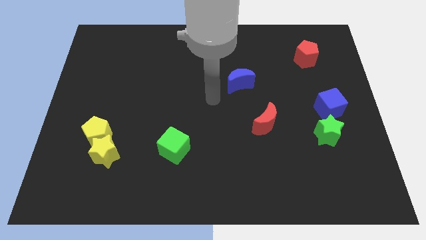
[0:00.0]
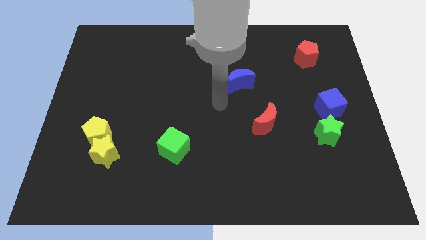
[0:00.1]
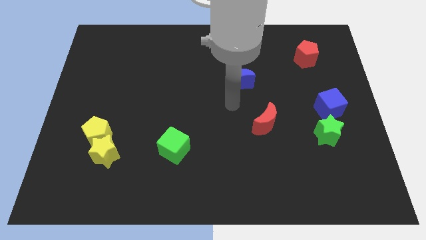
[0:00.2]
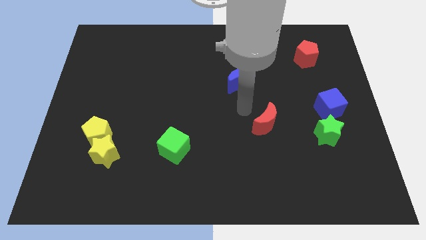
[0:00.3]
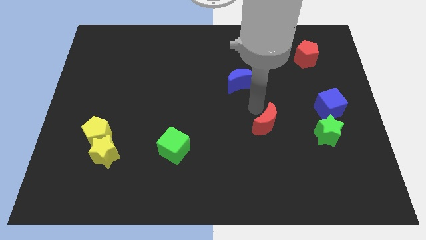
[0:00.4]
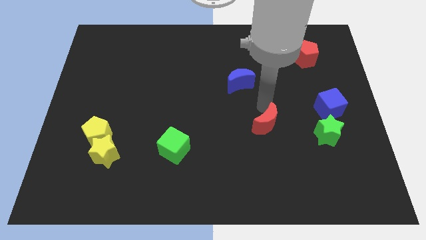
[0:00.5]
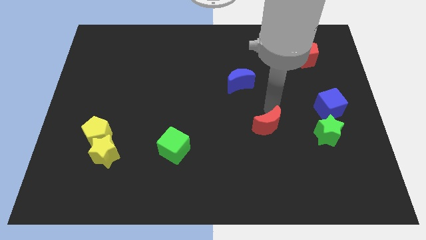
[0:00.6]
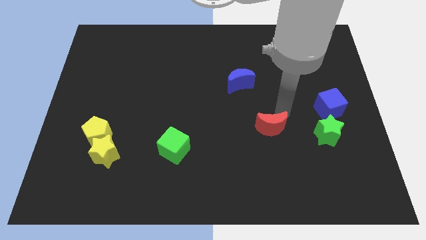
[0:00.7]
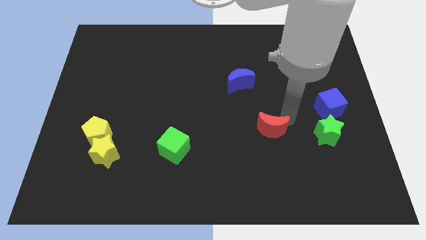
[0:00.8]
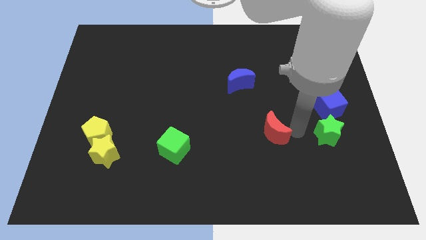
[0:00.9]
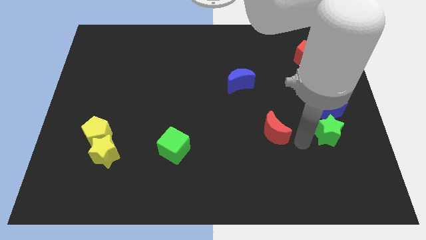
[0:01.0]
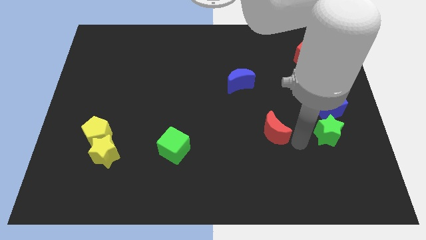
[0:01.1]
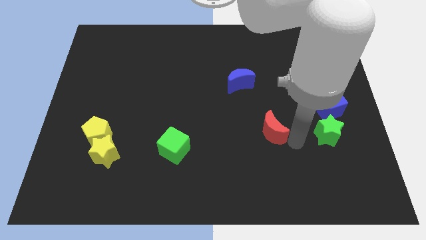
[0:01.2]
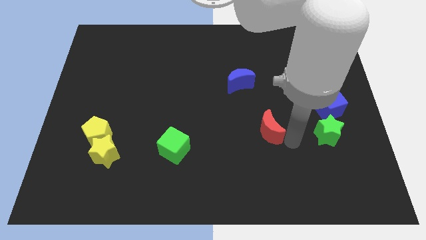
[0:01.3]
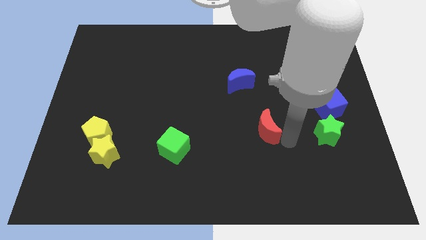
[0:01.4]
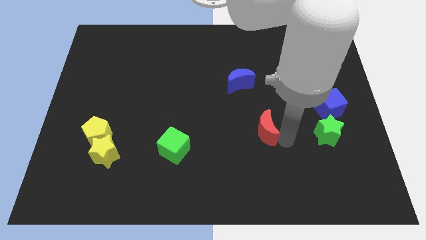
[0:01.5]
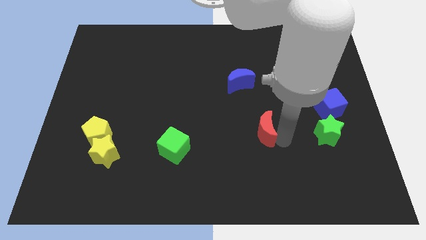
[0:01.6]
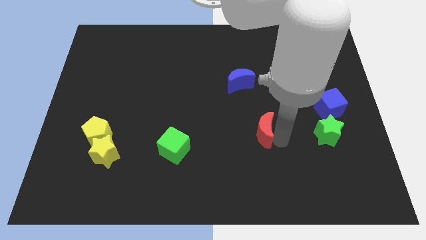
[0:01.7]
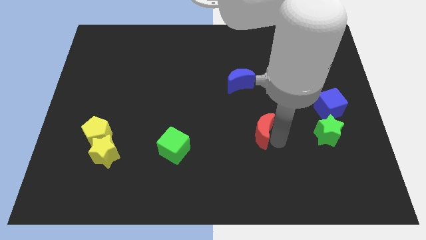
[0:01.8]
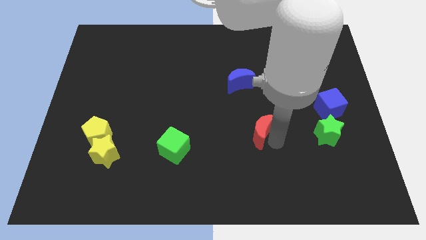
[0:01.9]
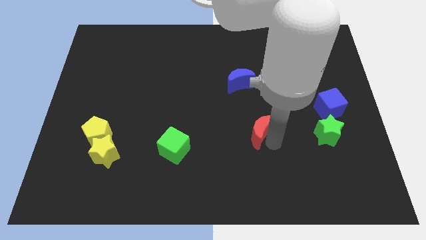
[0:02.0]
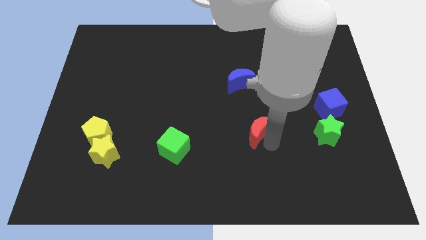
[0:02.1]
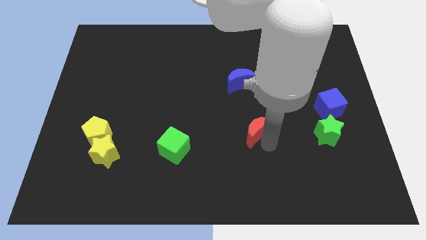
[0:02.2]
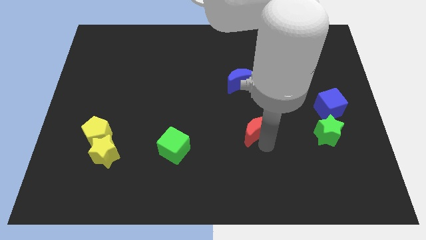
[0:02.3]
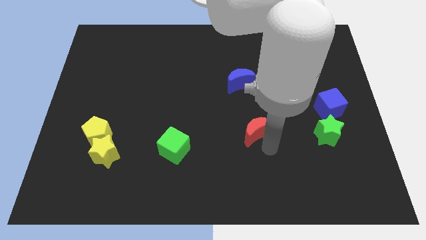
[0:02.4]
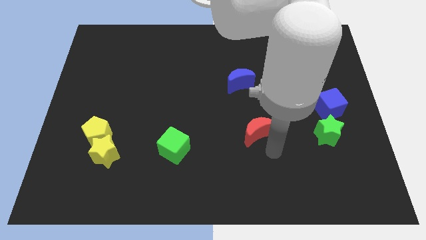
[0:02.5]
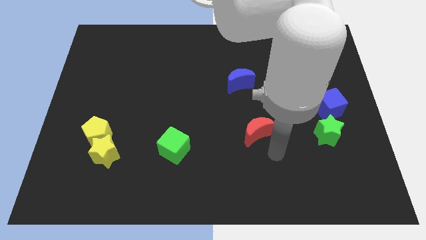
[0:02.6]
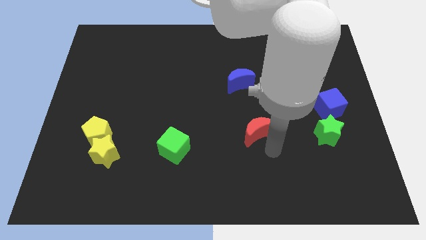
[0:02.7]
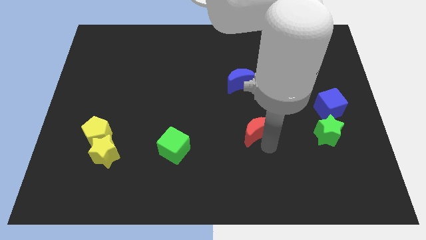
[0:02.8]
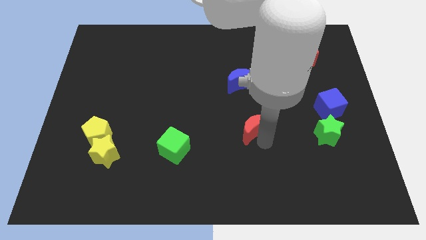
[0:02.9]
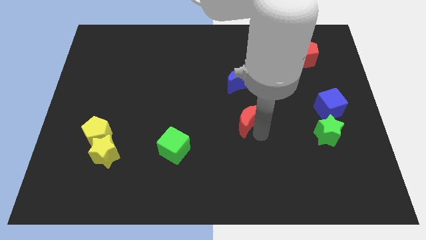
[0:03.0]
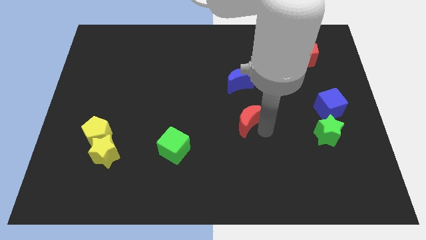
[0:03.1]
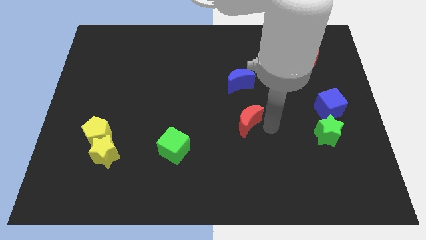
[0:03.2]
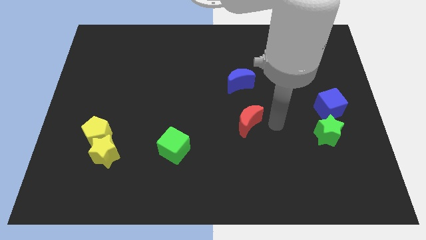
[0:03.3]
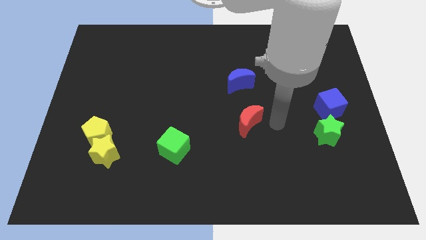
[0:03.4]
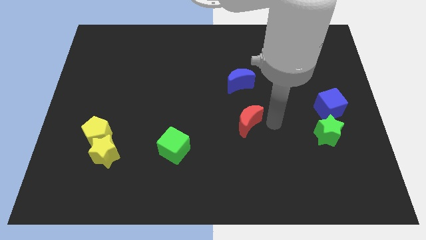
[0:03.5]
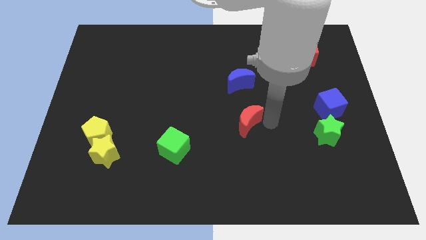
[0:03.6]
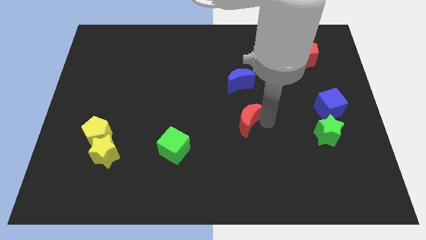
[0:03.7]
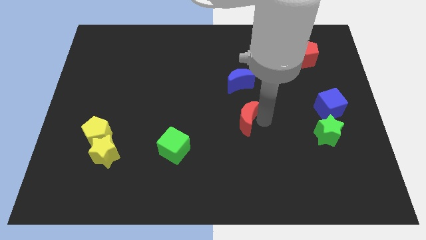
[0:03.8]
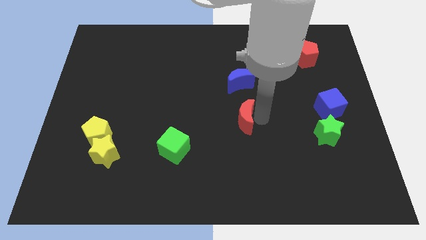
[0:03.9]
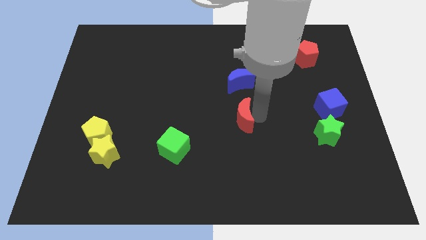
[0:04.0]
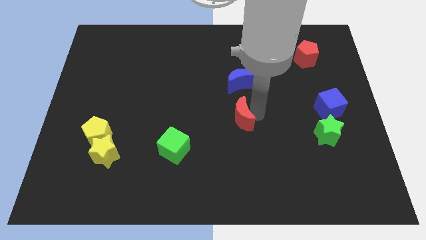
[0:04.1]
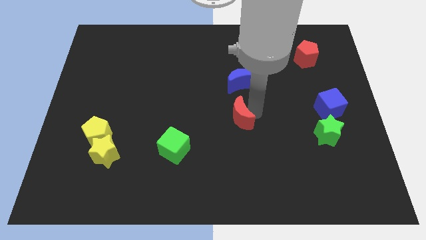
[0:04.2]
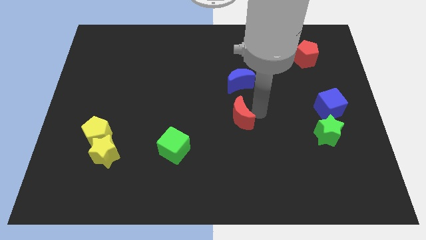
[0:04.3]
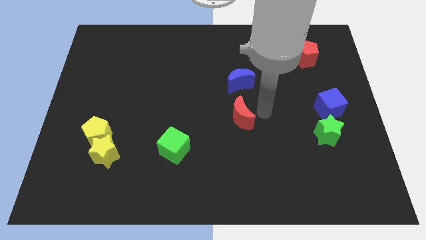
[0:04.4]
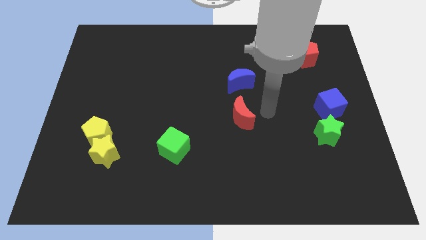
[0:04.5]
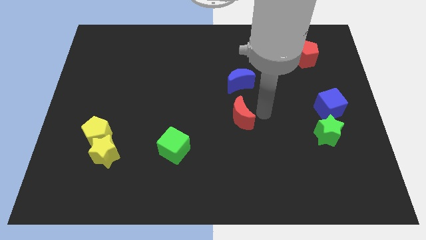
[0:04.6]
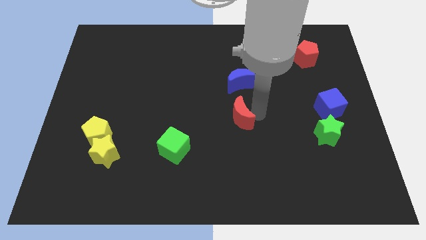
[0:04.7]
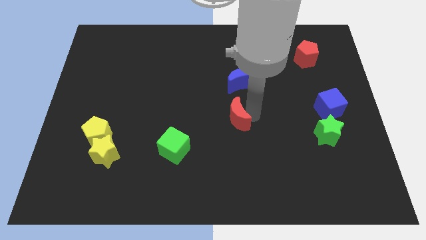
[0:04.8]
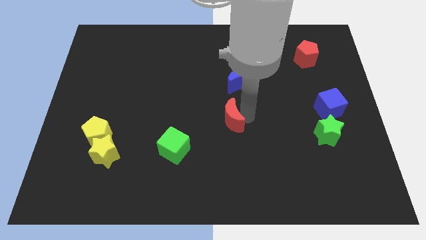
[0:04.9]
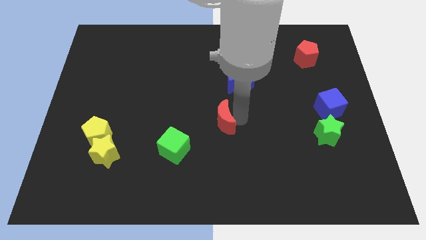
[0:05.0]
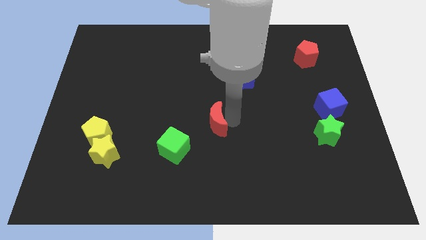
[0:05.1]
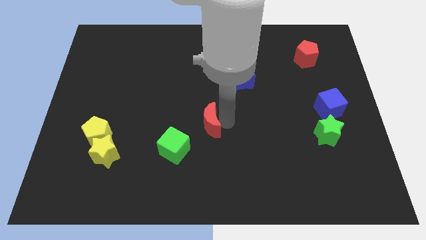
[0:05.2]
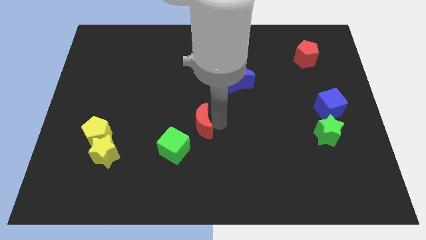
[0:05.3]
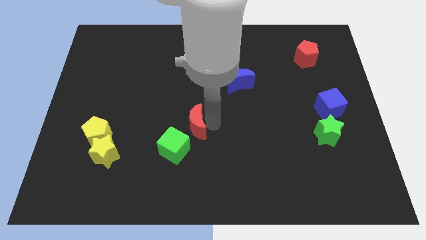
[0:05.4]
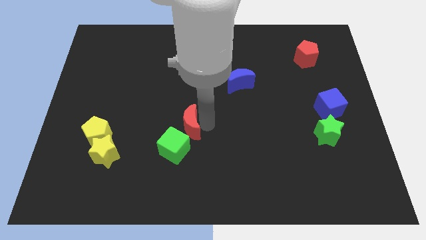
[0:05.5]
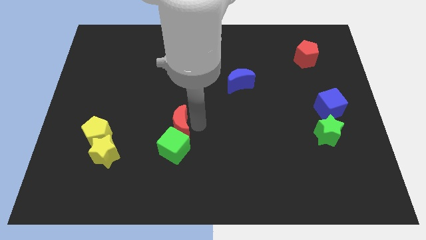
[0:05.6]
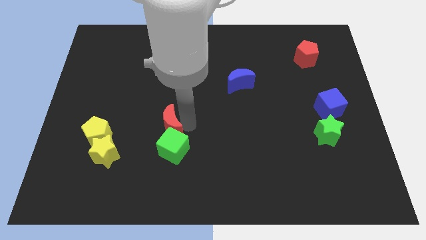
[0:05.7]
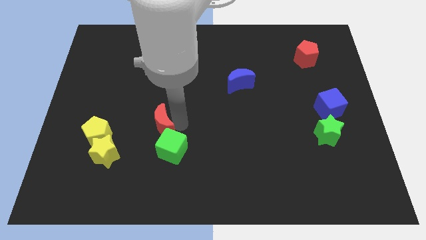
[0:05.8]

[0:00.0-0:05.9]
put the red moon right of the yellow pentagon

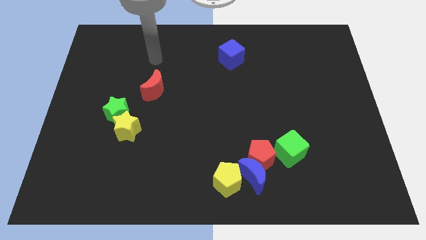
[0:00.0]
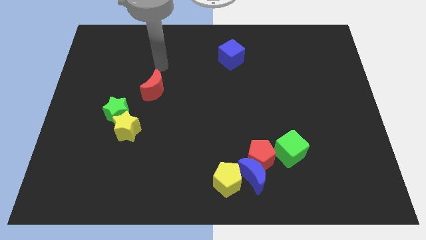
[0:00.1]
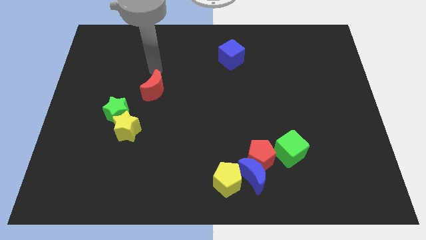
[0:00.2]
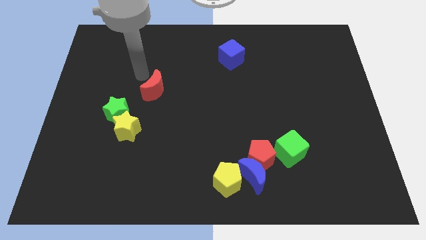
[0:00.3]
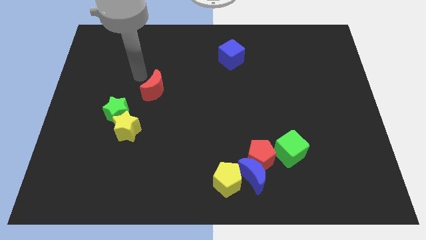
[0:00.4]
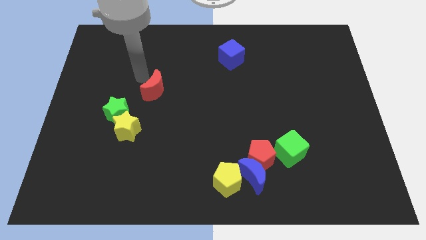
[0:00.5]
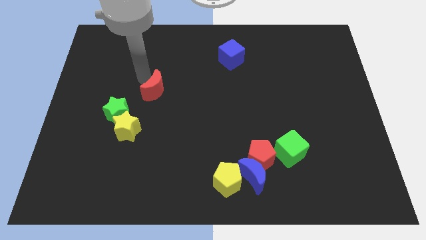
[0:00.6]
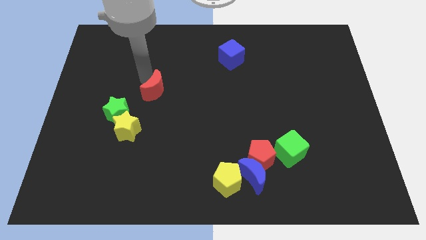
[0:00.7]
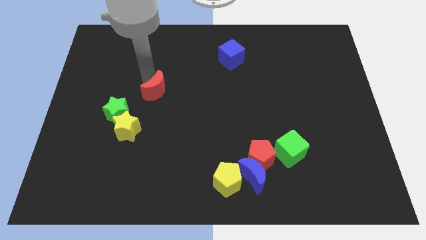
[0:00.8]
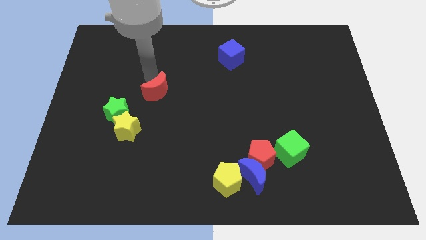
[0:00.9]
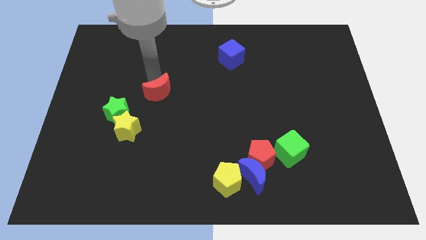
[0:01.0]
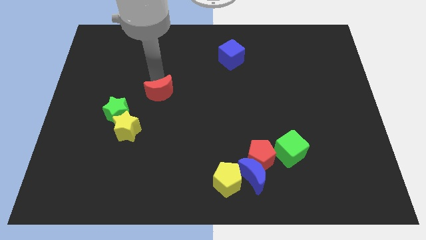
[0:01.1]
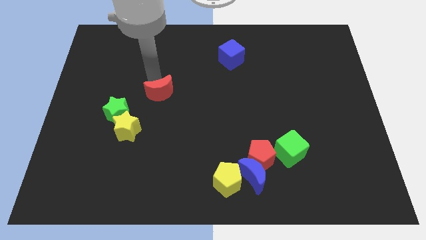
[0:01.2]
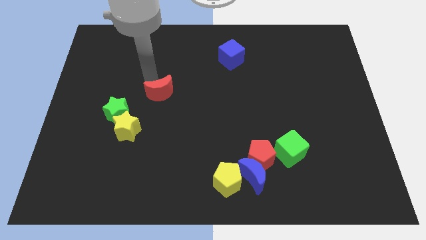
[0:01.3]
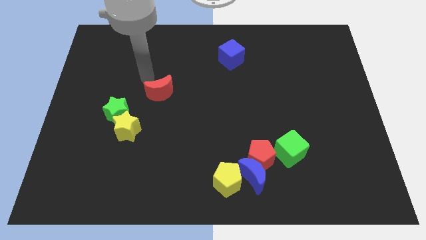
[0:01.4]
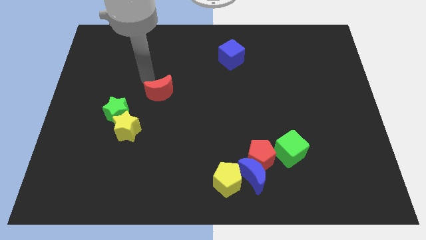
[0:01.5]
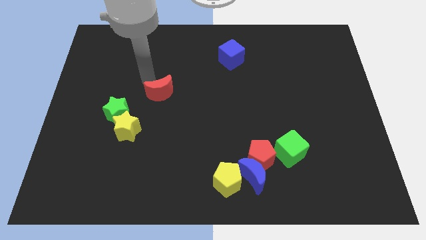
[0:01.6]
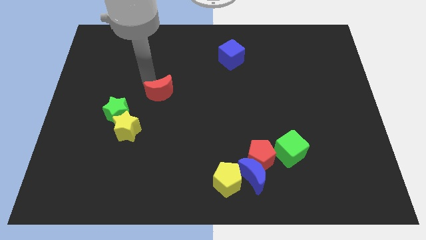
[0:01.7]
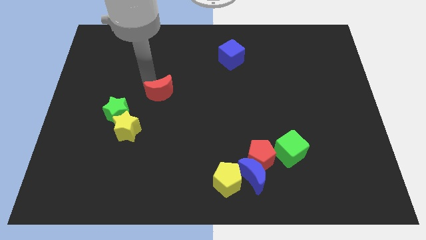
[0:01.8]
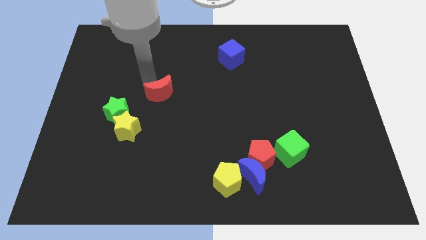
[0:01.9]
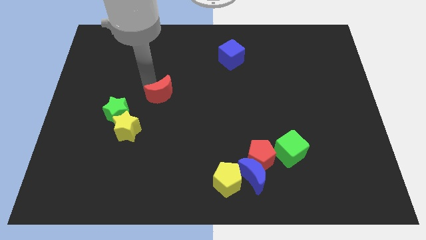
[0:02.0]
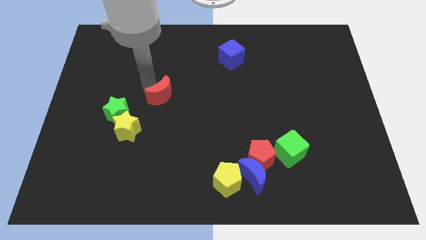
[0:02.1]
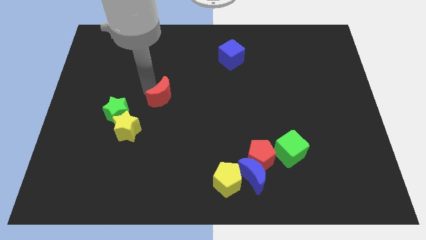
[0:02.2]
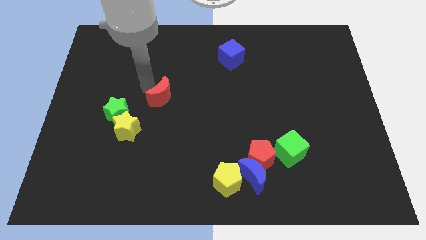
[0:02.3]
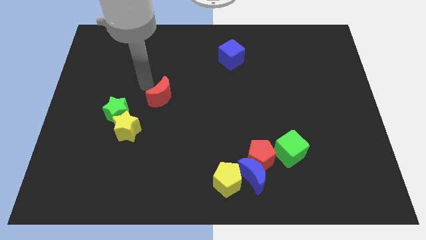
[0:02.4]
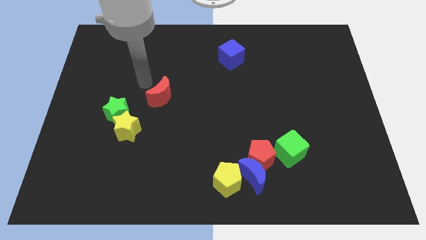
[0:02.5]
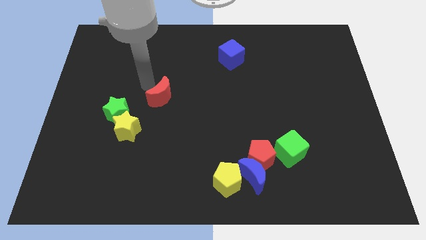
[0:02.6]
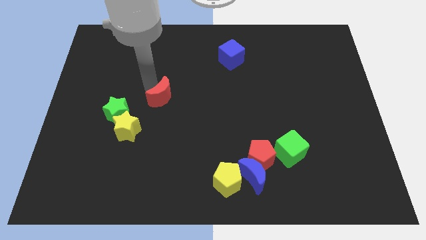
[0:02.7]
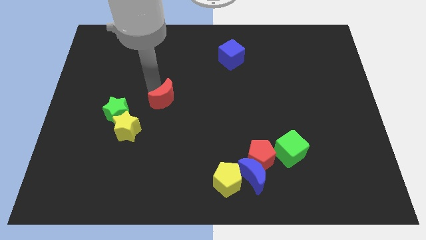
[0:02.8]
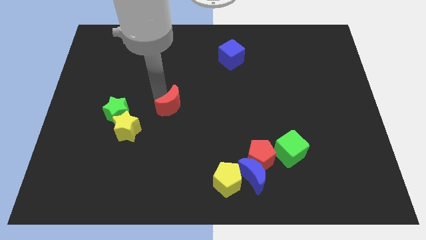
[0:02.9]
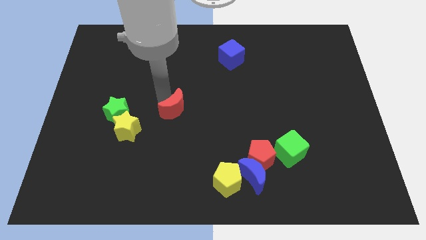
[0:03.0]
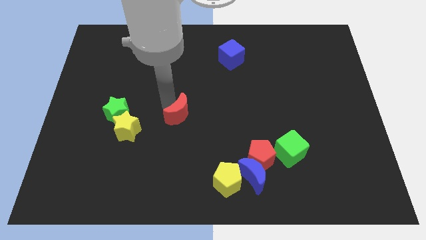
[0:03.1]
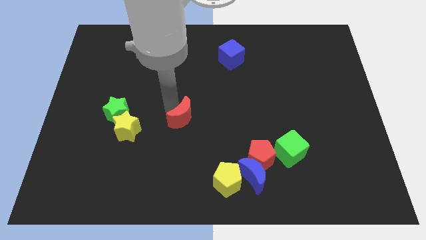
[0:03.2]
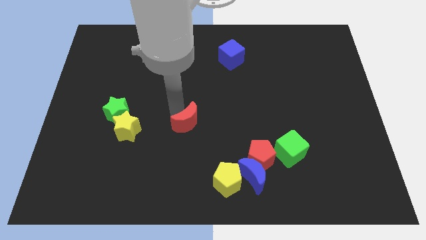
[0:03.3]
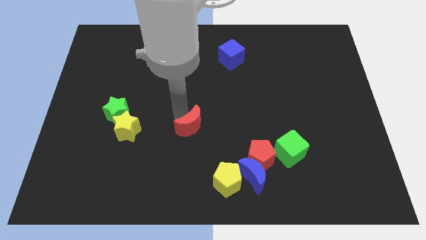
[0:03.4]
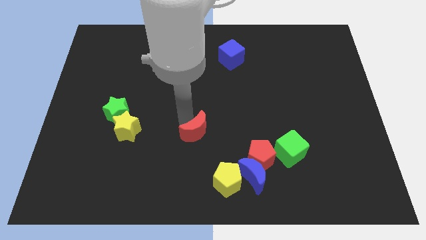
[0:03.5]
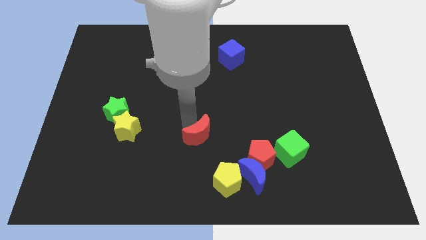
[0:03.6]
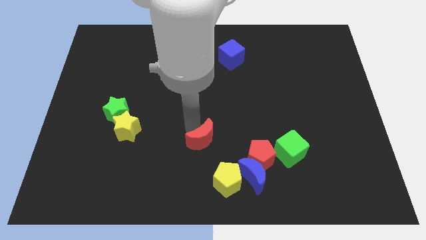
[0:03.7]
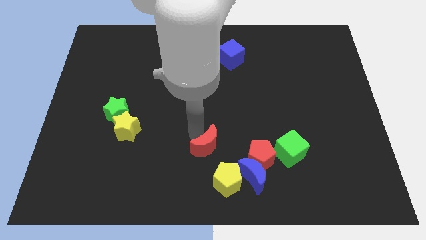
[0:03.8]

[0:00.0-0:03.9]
move the red moon diagonally up and to the left of the blue moon
